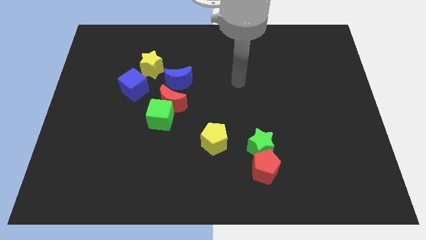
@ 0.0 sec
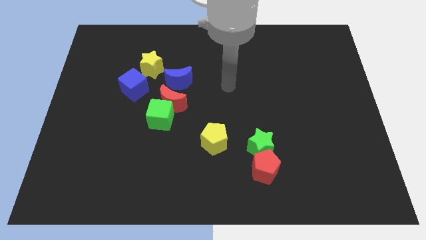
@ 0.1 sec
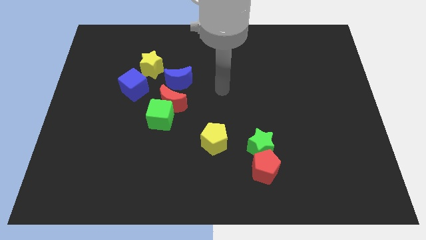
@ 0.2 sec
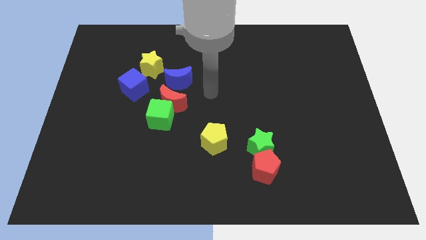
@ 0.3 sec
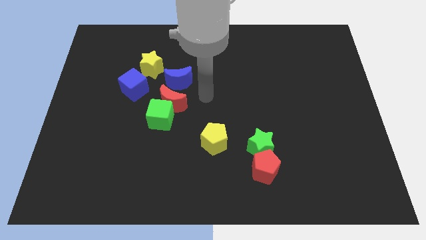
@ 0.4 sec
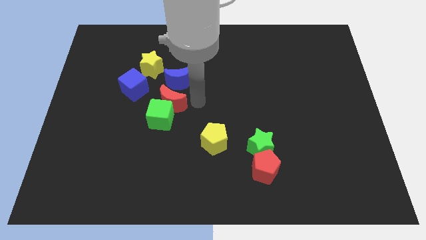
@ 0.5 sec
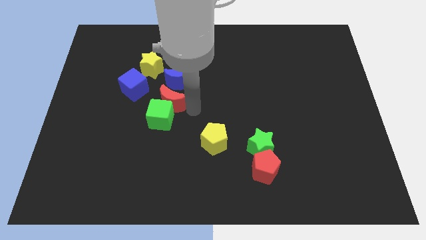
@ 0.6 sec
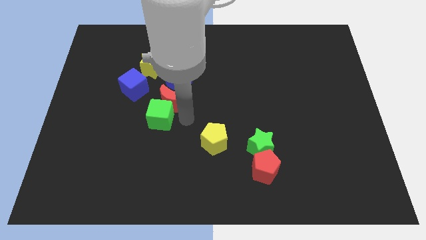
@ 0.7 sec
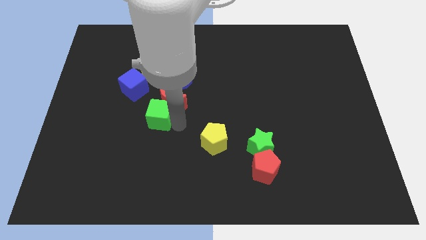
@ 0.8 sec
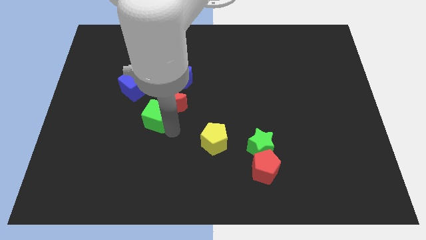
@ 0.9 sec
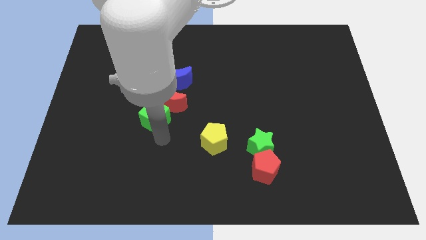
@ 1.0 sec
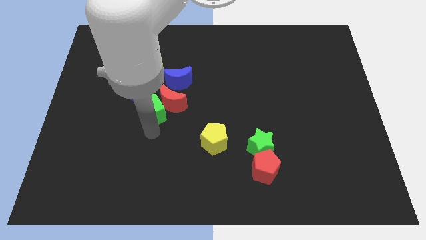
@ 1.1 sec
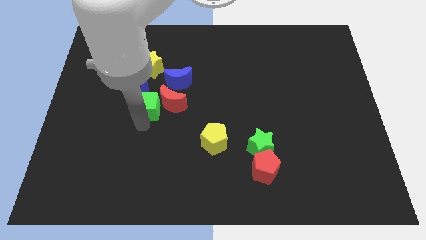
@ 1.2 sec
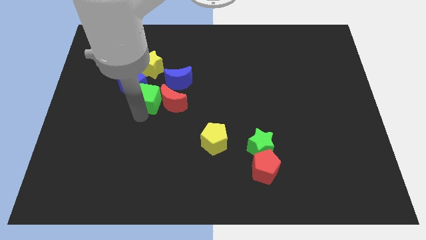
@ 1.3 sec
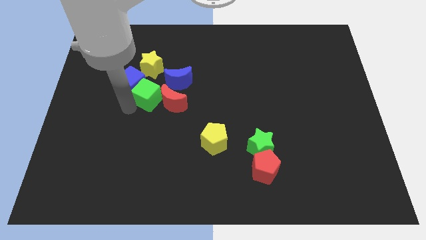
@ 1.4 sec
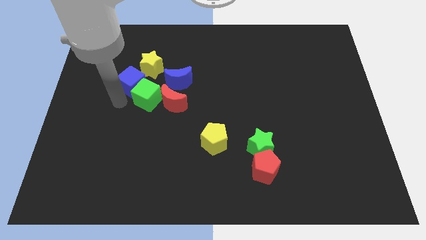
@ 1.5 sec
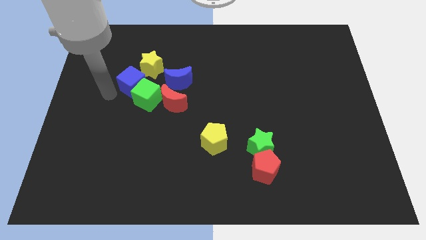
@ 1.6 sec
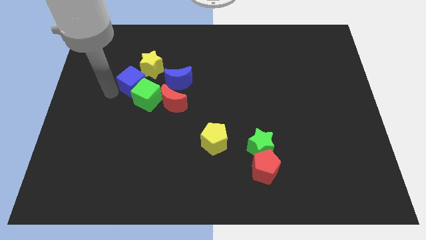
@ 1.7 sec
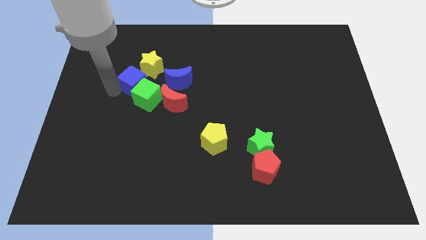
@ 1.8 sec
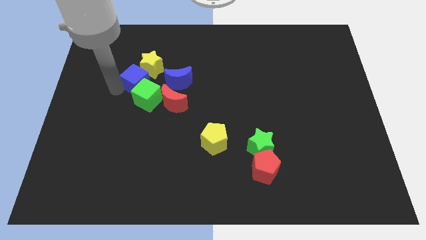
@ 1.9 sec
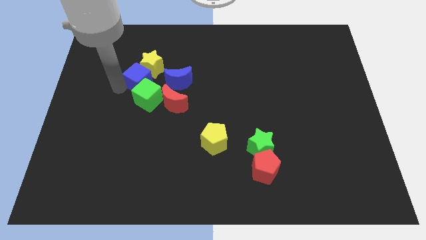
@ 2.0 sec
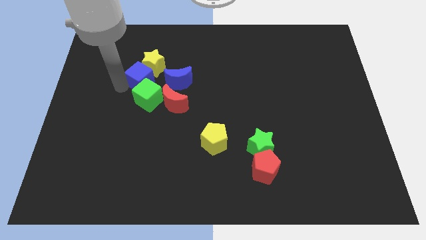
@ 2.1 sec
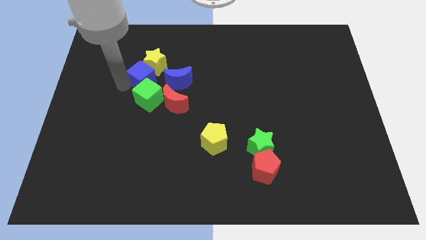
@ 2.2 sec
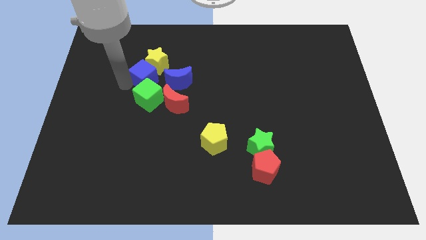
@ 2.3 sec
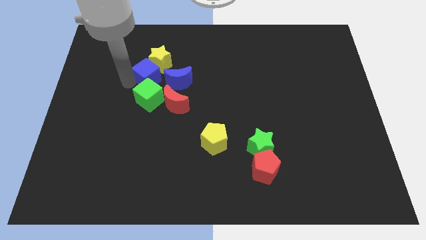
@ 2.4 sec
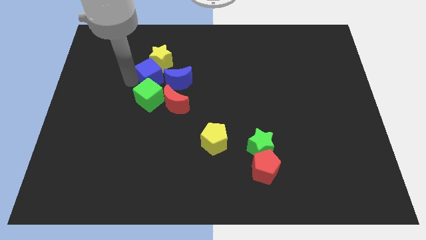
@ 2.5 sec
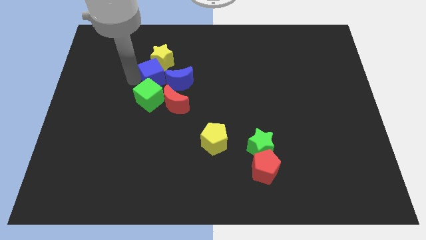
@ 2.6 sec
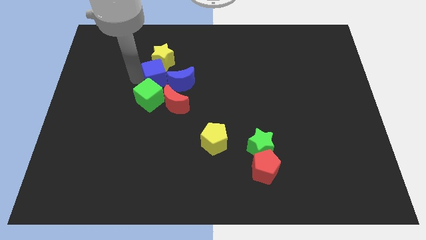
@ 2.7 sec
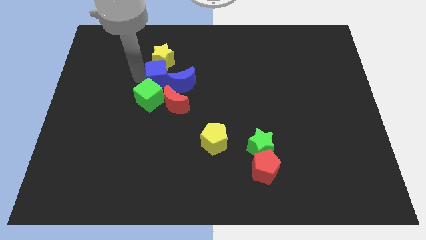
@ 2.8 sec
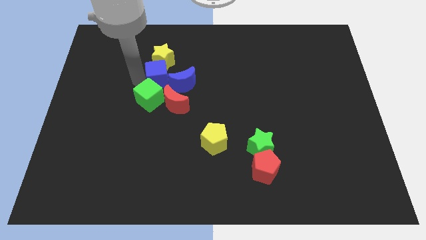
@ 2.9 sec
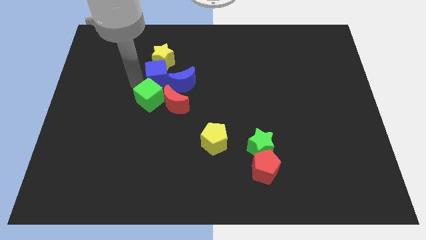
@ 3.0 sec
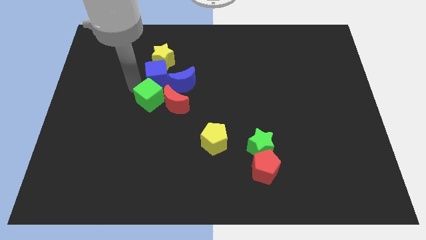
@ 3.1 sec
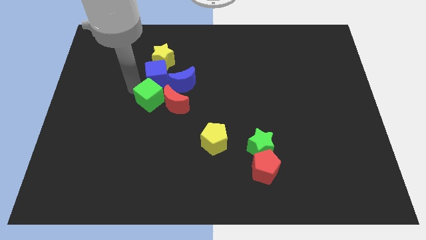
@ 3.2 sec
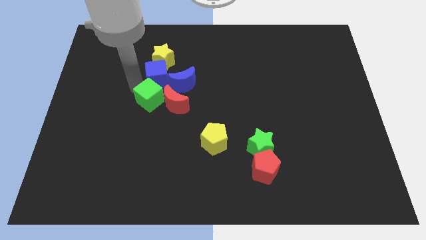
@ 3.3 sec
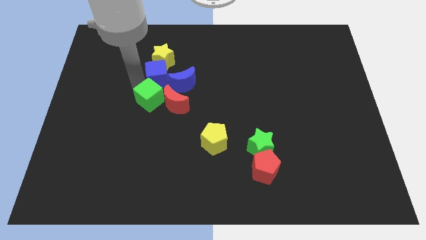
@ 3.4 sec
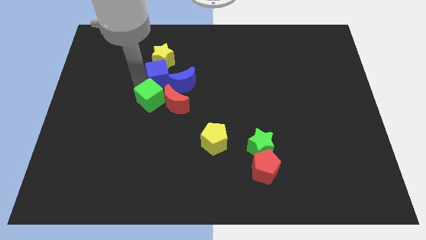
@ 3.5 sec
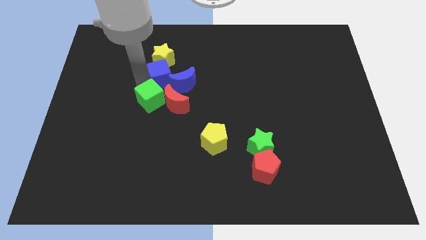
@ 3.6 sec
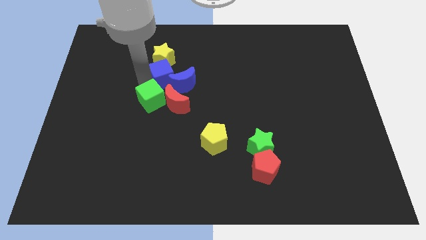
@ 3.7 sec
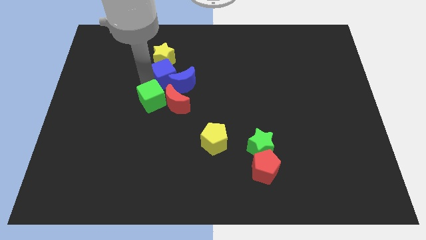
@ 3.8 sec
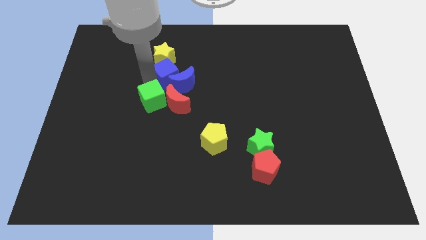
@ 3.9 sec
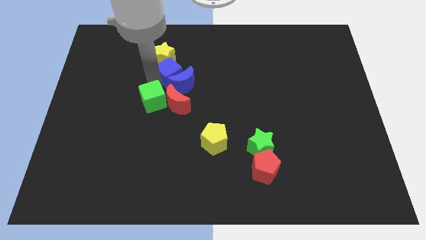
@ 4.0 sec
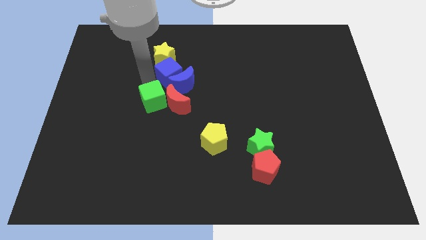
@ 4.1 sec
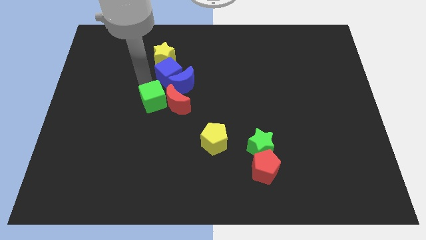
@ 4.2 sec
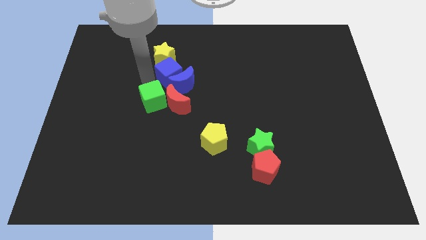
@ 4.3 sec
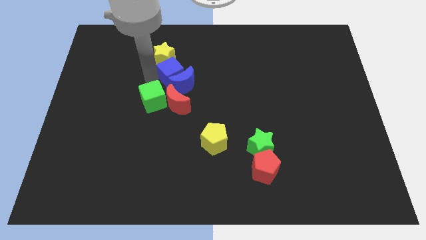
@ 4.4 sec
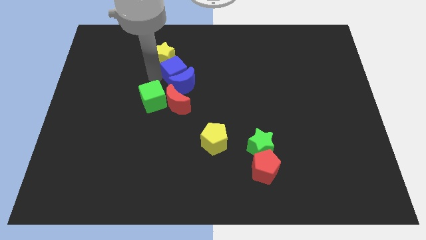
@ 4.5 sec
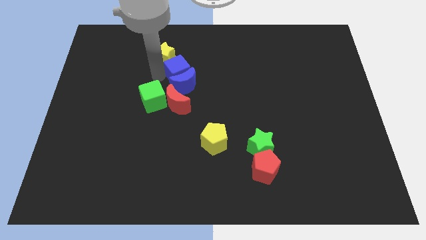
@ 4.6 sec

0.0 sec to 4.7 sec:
put the blue cube to the top right of the blue moon

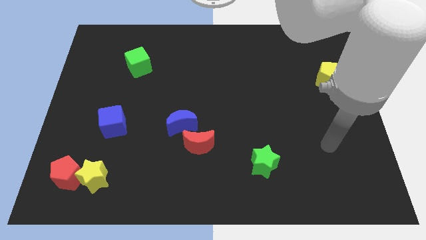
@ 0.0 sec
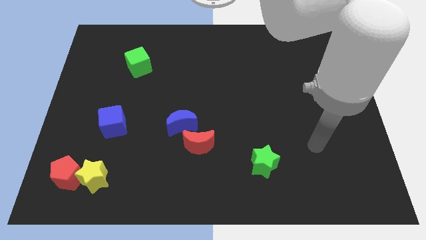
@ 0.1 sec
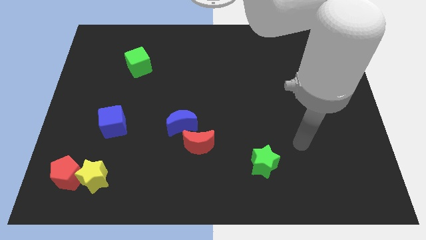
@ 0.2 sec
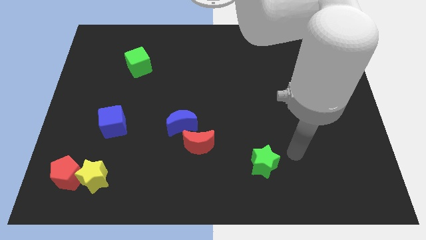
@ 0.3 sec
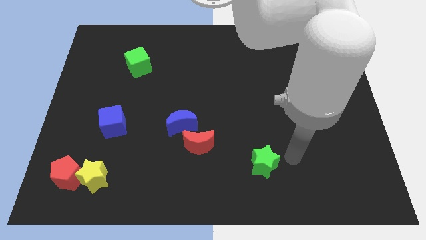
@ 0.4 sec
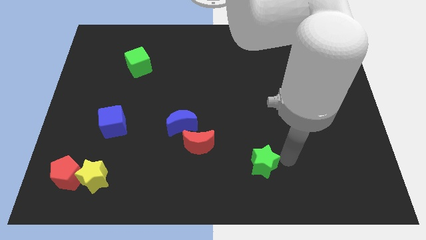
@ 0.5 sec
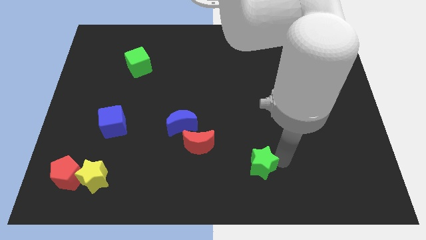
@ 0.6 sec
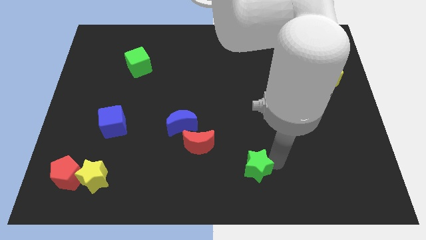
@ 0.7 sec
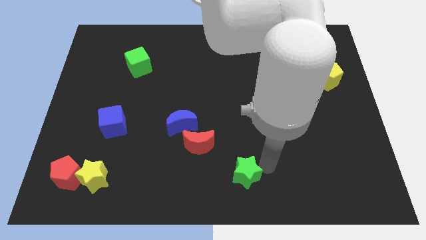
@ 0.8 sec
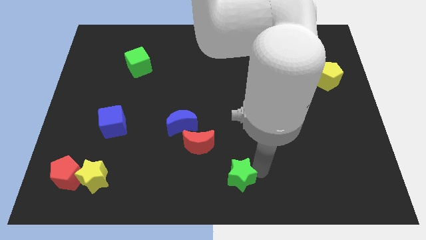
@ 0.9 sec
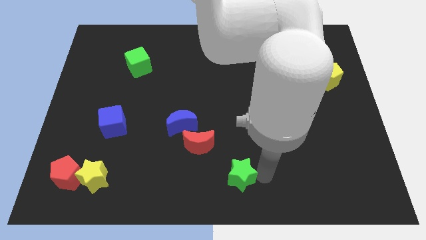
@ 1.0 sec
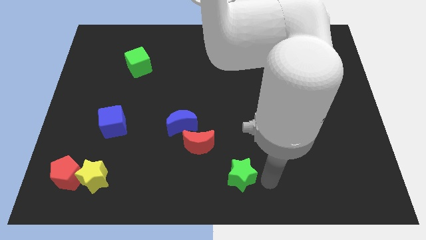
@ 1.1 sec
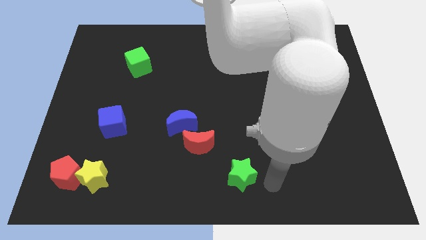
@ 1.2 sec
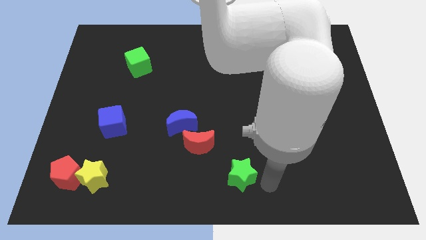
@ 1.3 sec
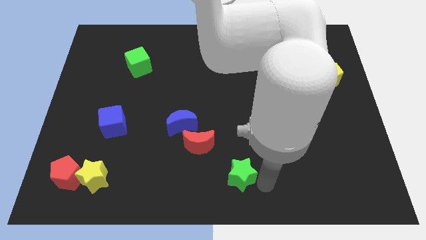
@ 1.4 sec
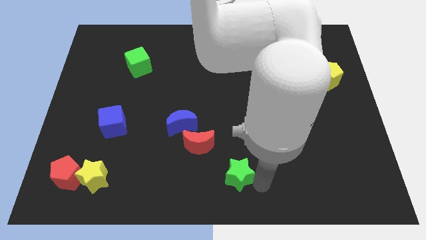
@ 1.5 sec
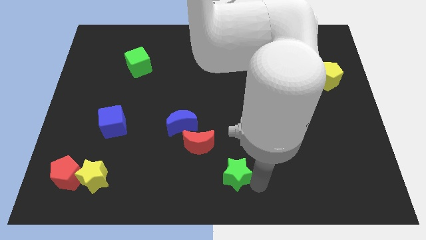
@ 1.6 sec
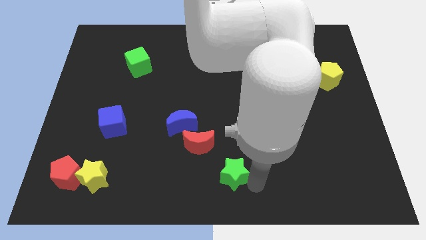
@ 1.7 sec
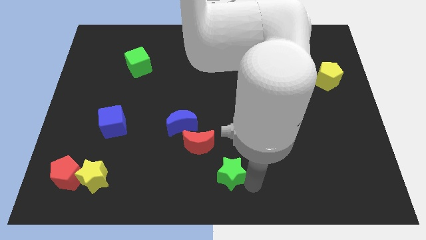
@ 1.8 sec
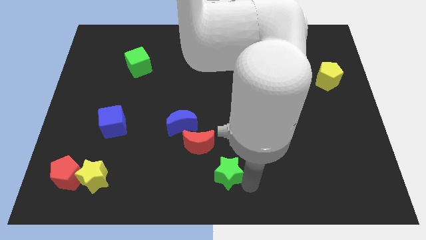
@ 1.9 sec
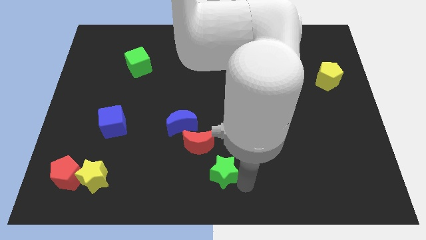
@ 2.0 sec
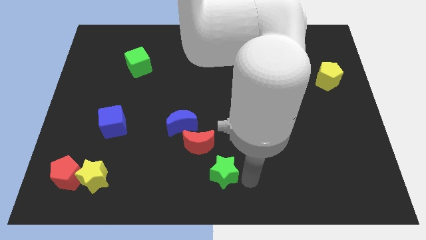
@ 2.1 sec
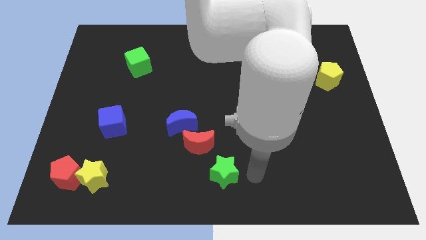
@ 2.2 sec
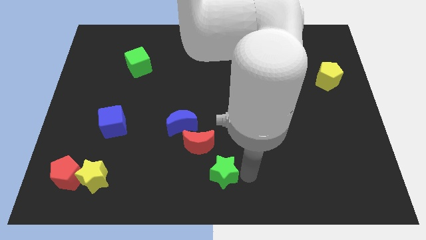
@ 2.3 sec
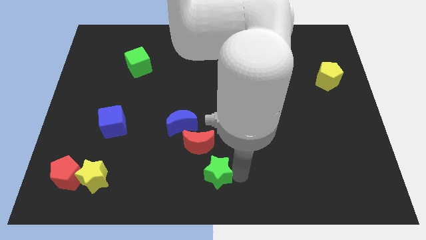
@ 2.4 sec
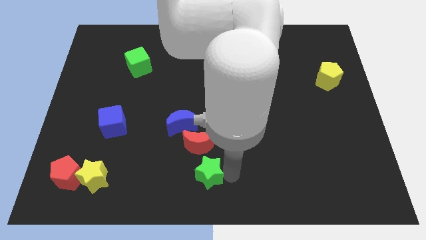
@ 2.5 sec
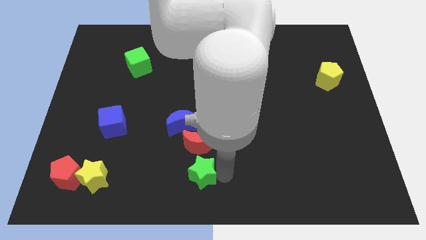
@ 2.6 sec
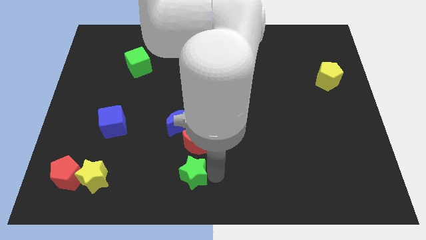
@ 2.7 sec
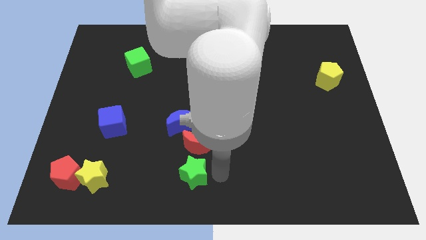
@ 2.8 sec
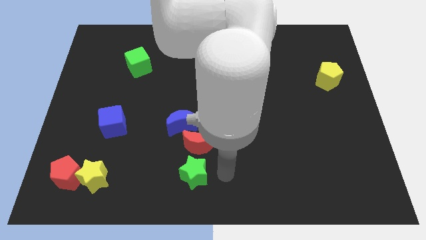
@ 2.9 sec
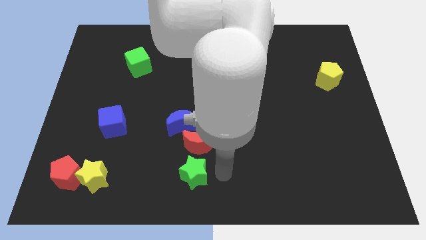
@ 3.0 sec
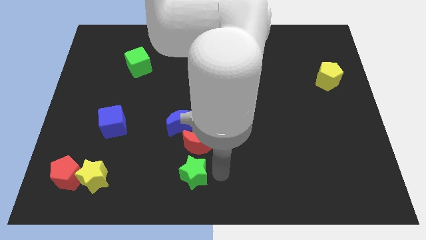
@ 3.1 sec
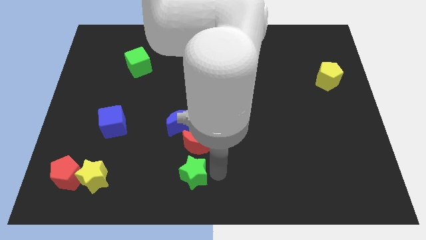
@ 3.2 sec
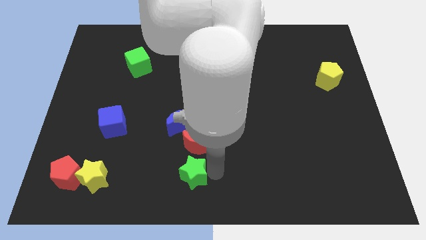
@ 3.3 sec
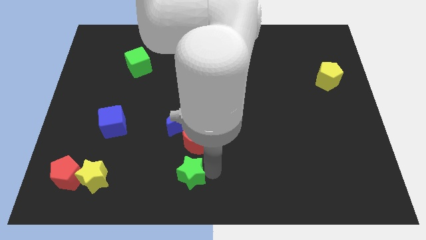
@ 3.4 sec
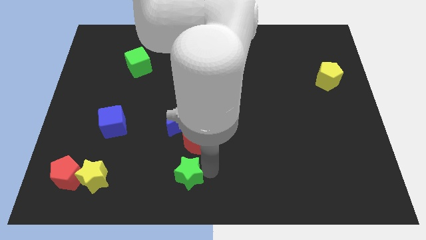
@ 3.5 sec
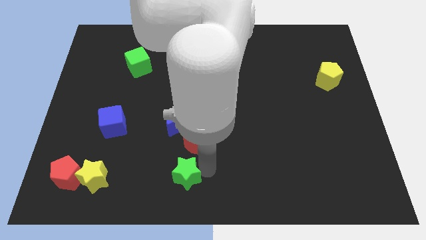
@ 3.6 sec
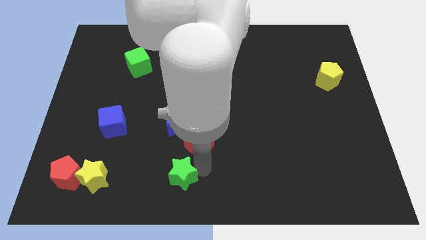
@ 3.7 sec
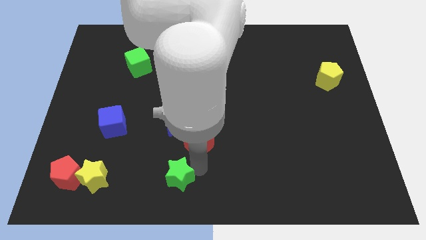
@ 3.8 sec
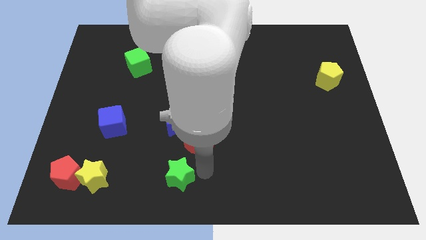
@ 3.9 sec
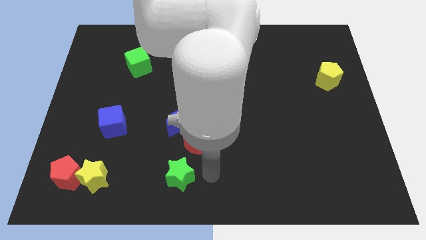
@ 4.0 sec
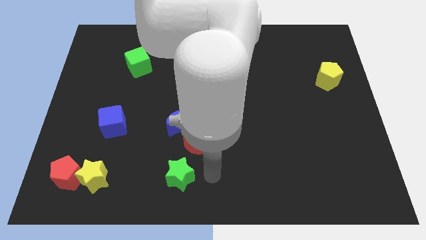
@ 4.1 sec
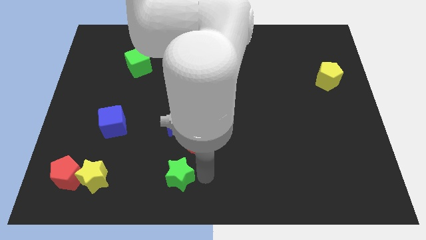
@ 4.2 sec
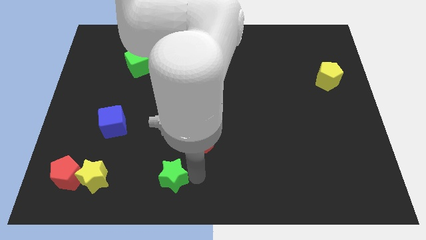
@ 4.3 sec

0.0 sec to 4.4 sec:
put the green star right of the yellow star
